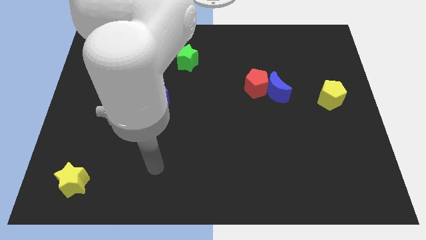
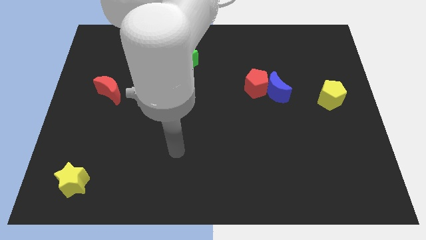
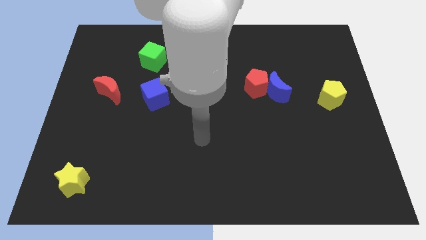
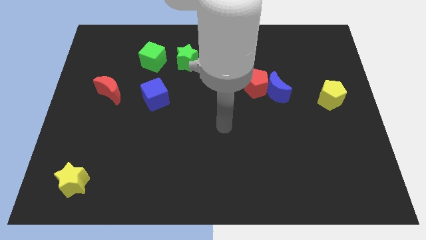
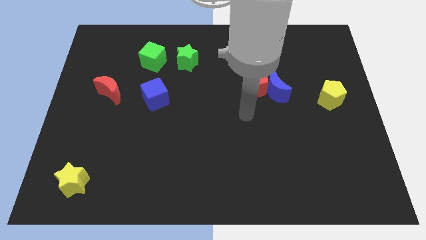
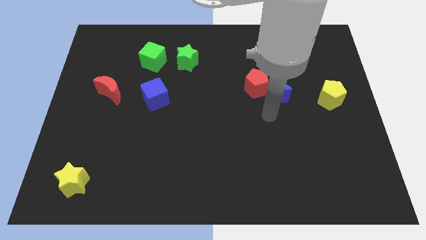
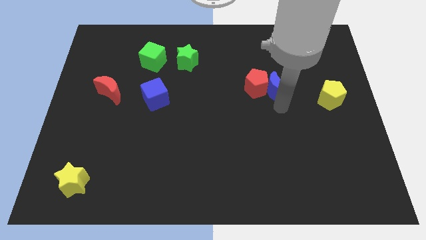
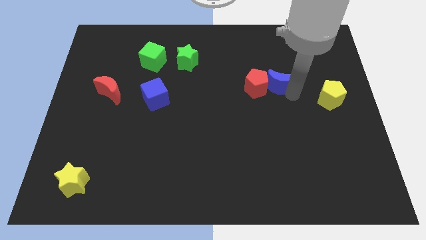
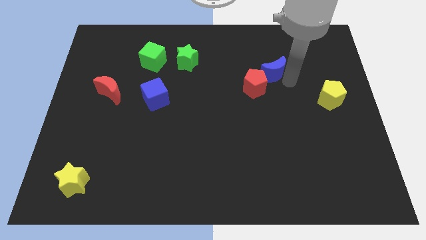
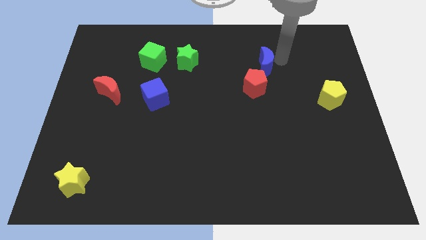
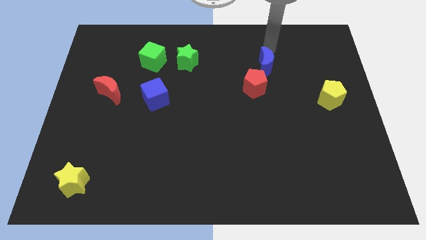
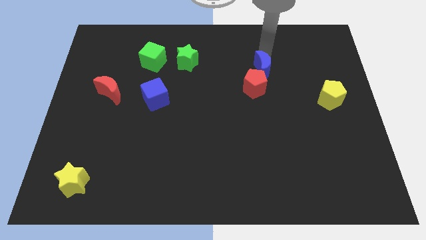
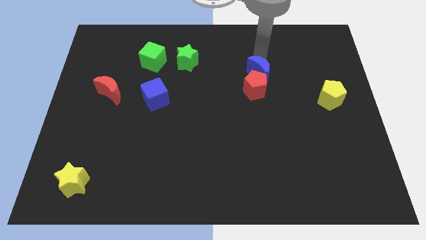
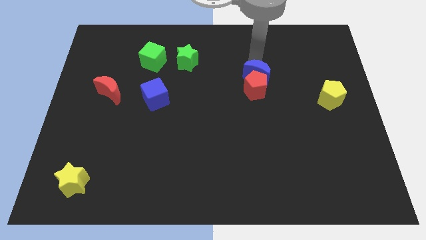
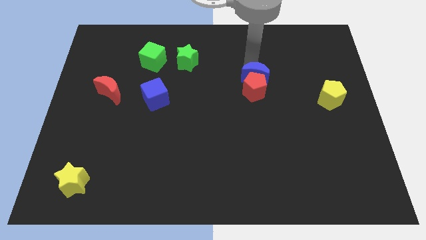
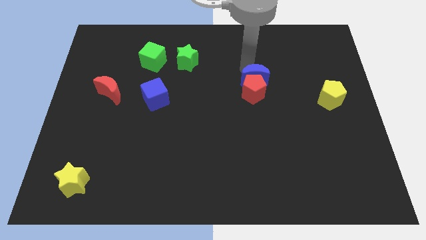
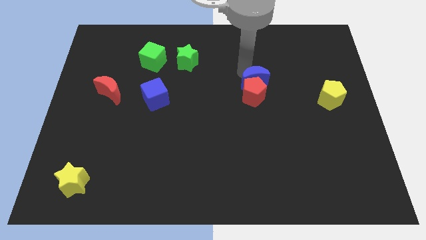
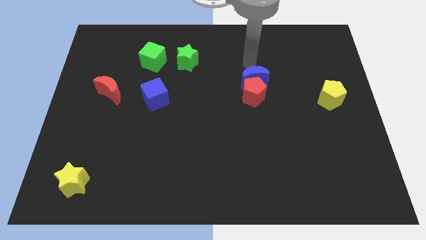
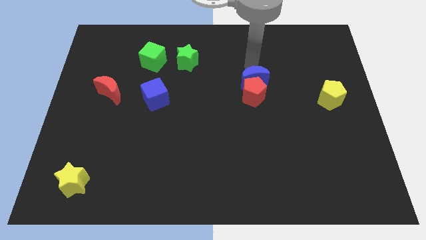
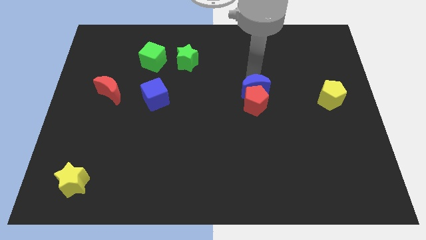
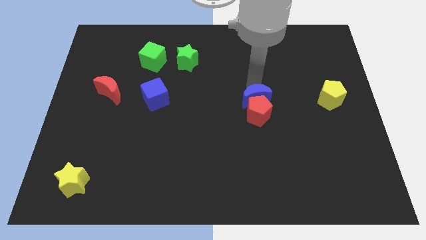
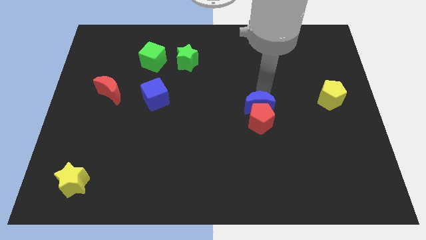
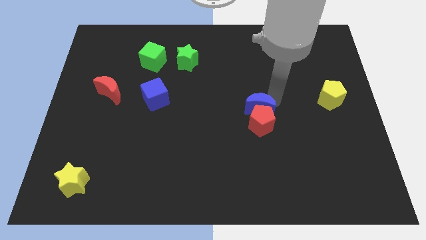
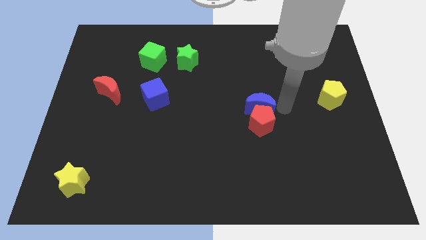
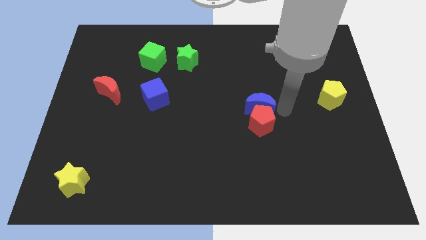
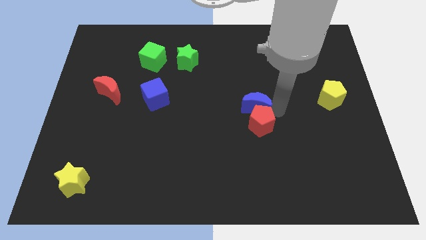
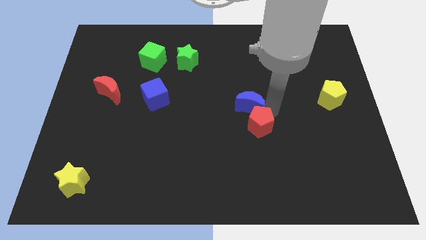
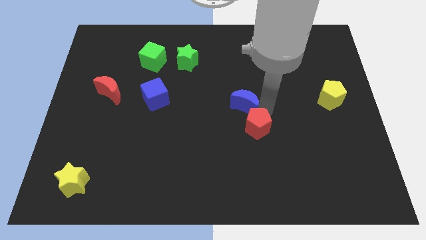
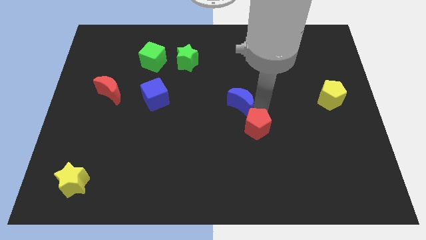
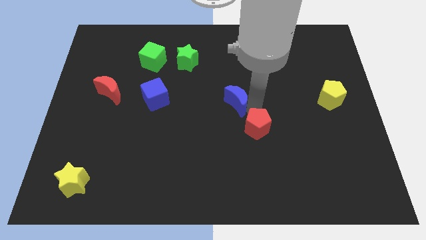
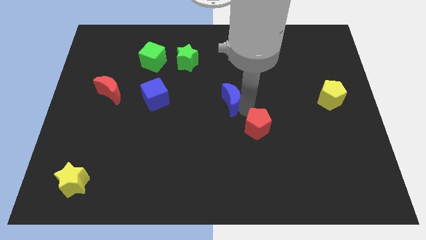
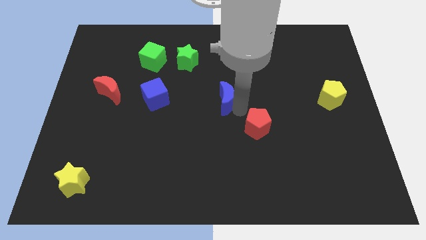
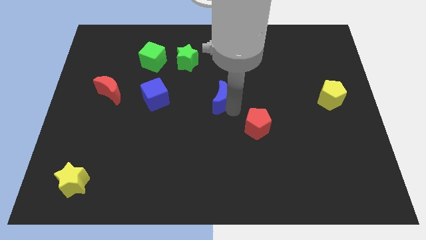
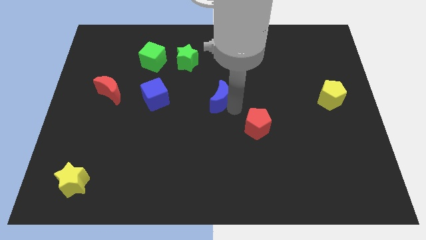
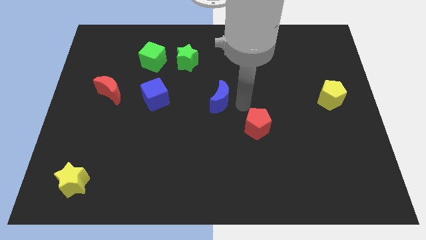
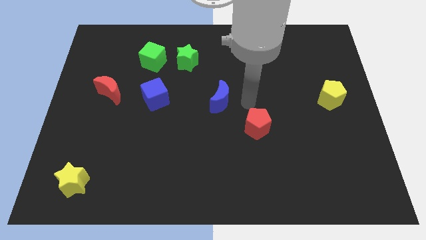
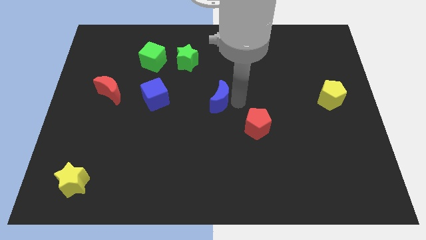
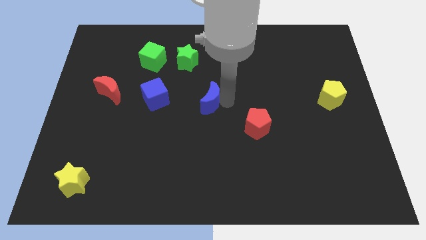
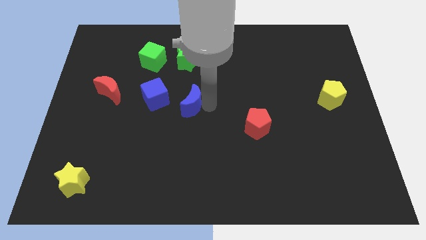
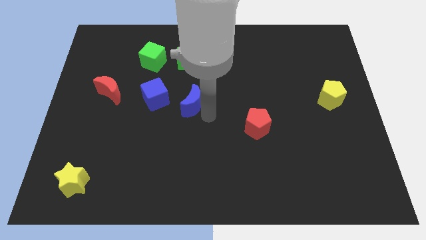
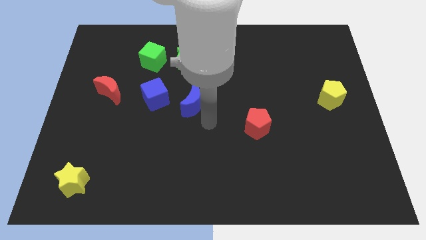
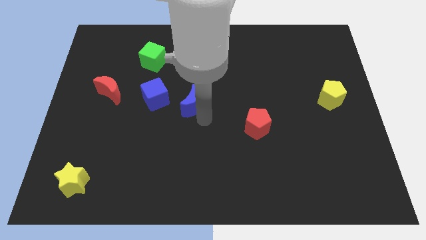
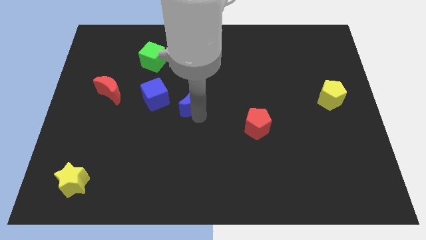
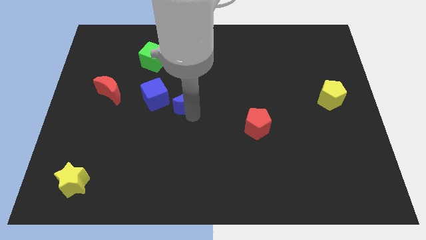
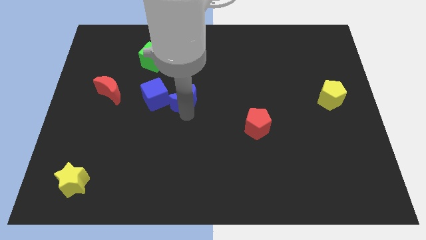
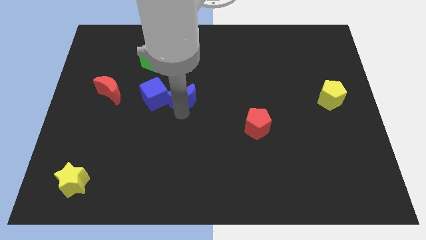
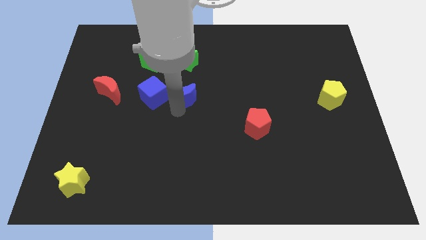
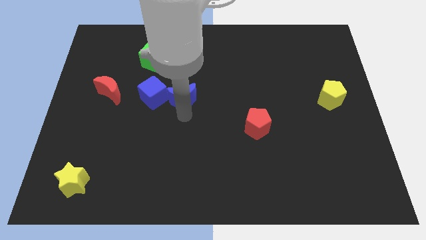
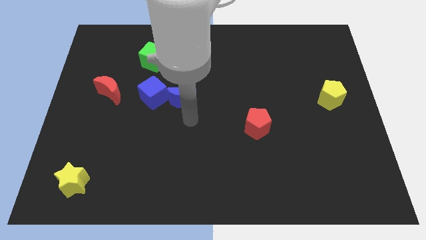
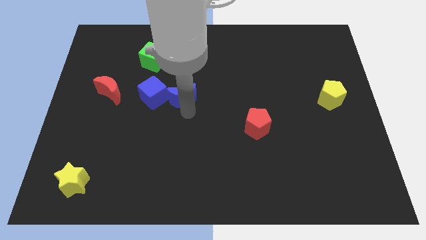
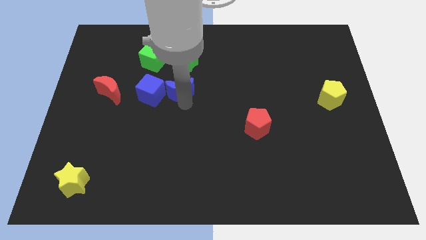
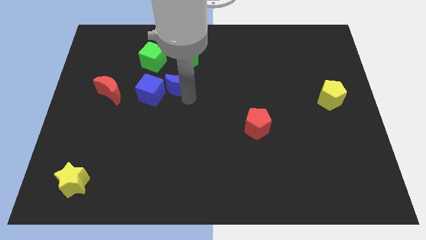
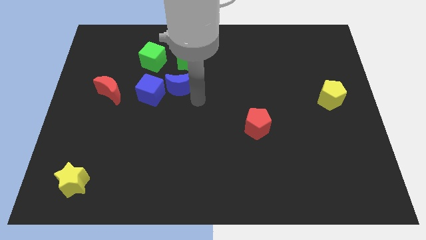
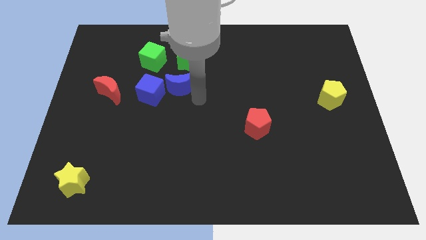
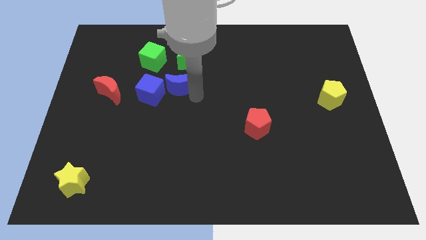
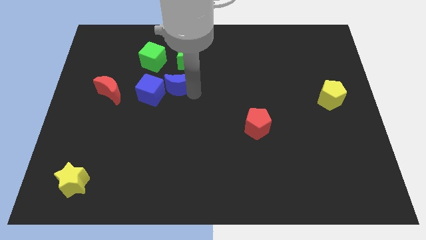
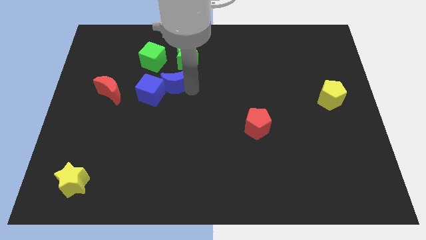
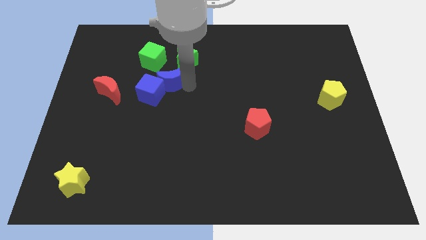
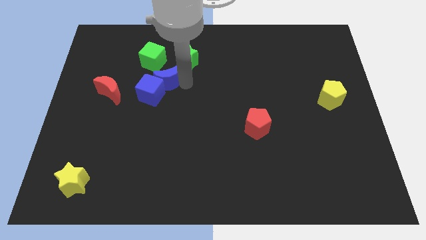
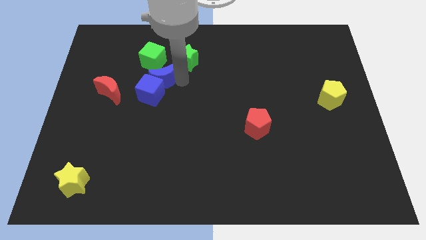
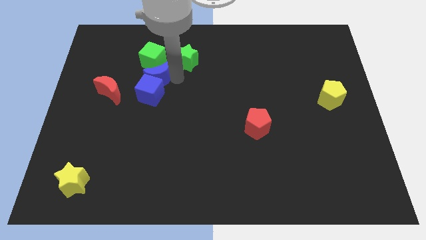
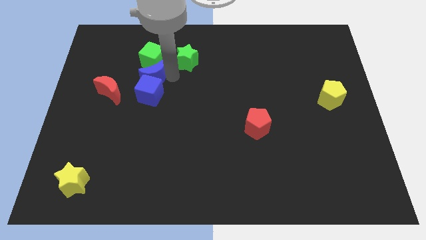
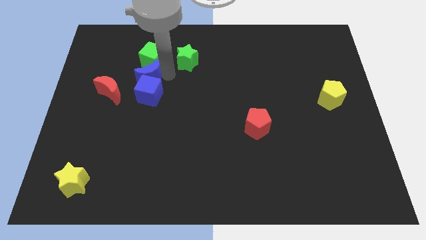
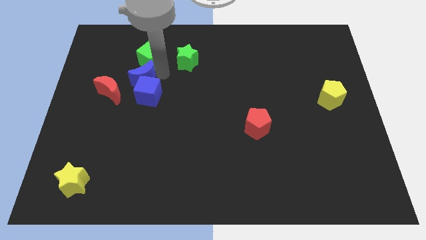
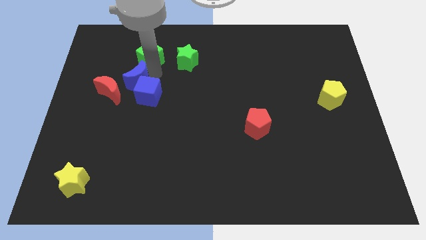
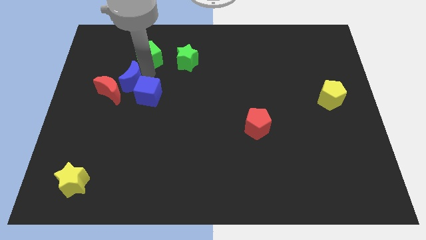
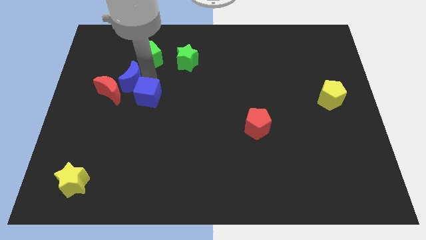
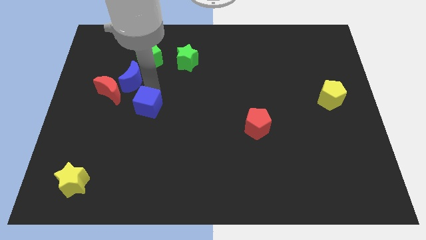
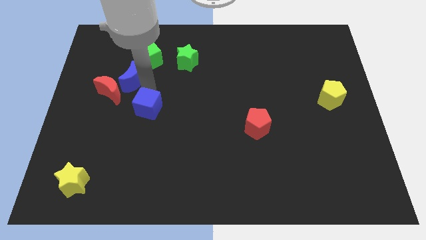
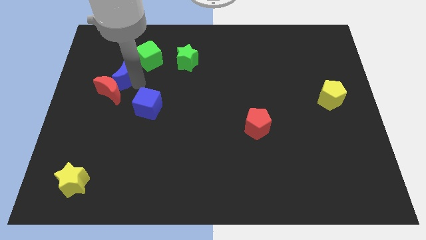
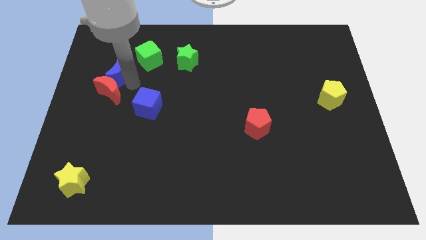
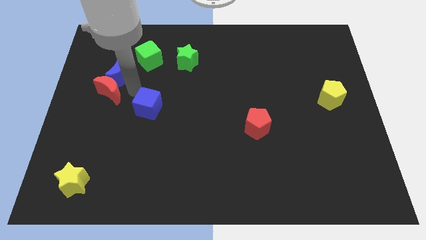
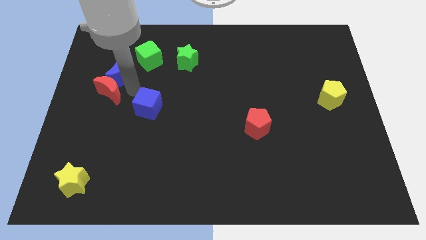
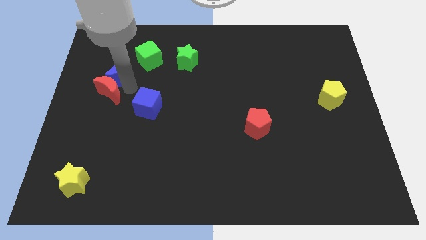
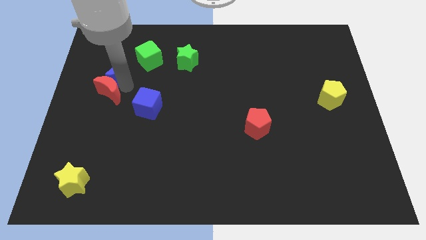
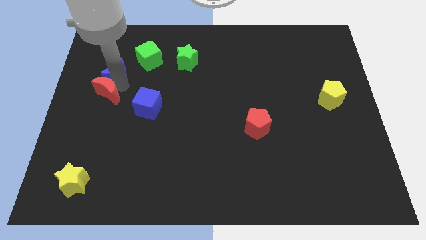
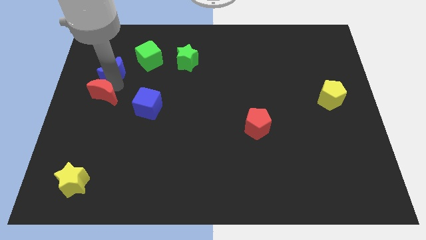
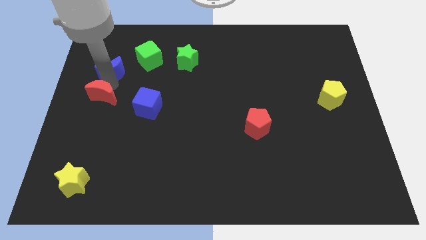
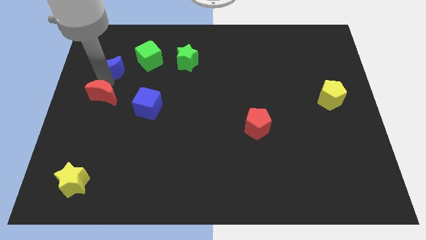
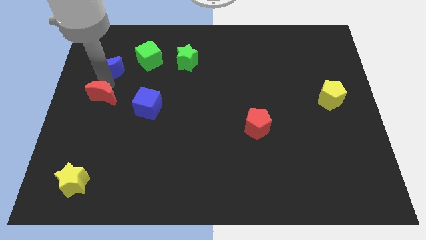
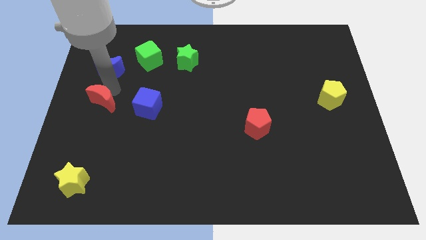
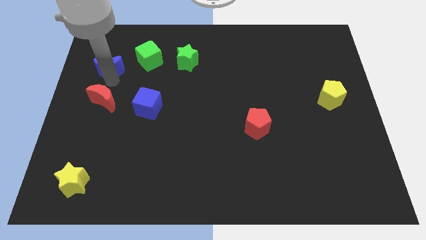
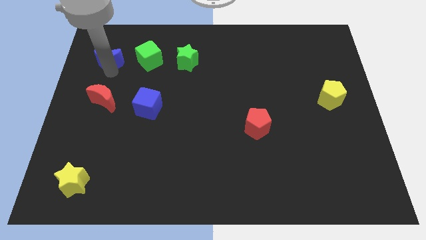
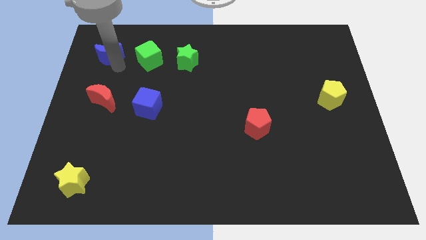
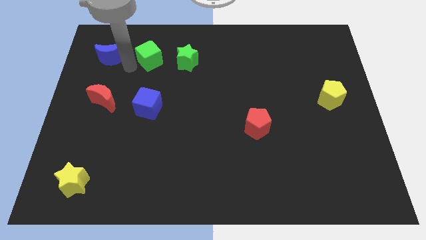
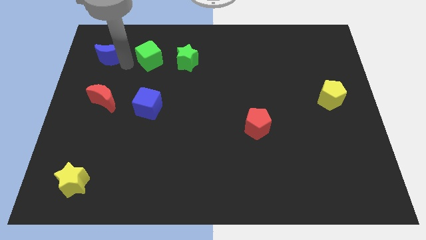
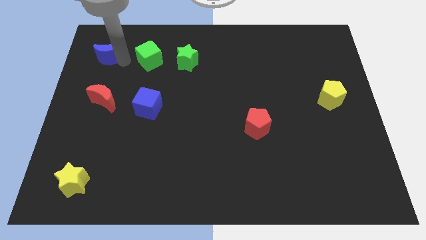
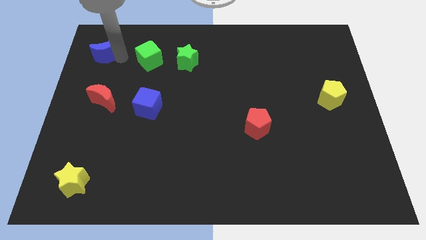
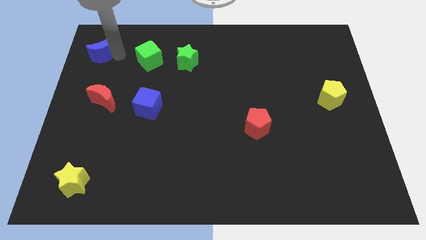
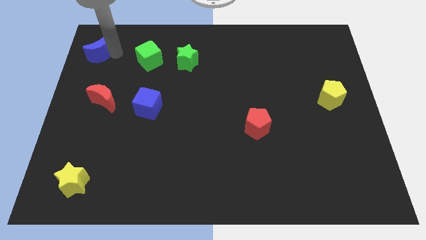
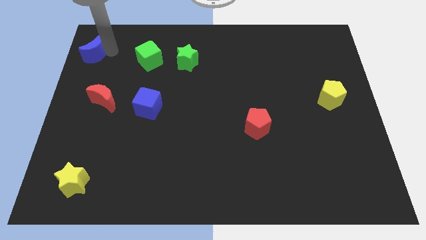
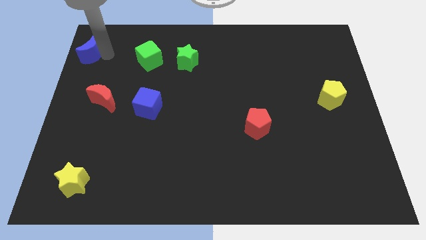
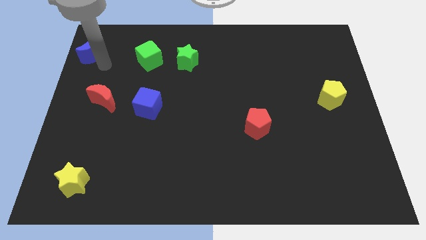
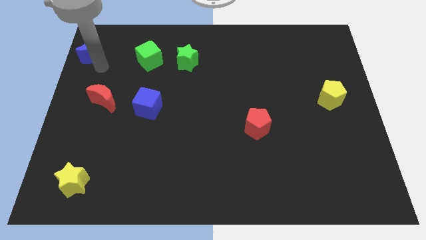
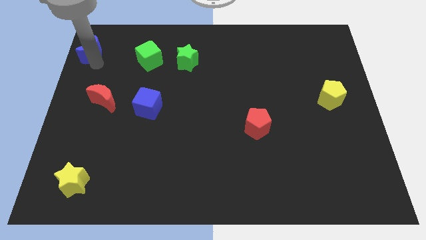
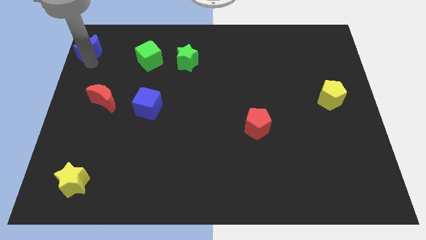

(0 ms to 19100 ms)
move the blue moon to the top left corner
